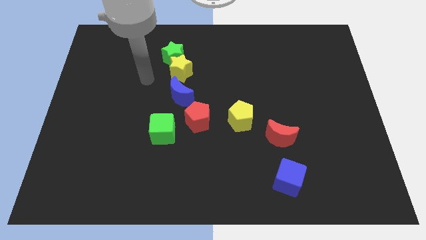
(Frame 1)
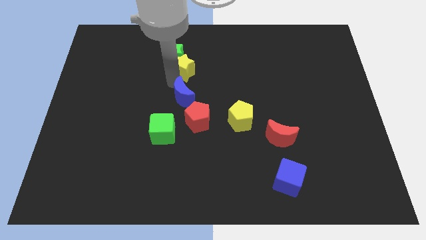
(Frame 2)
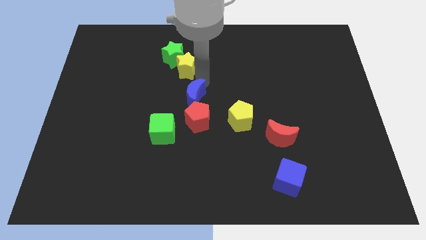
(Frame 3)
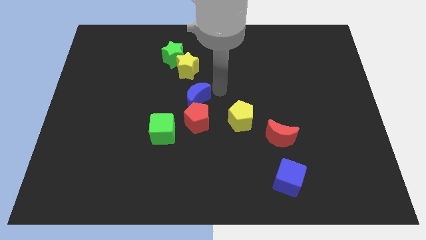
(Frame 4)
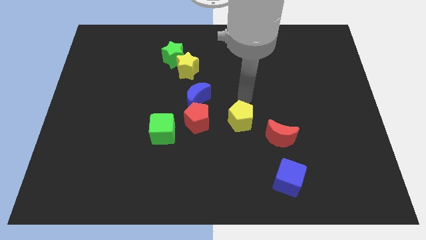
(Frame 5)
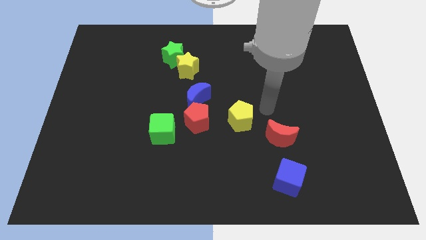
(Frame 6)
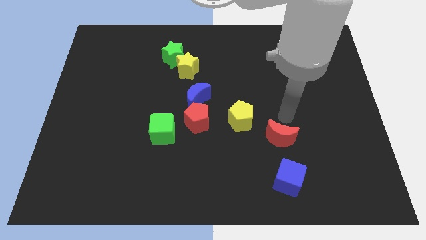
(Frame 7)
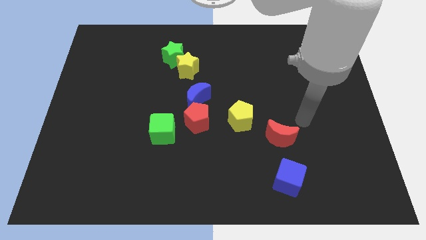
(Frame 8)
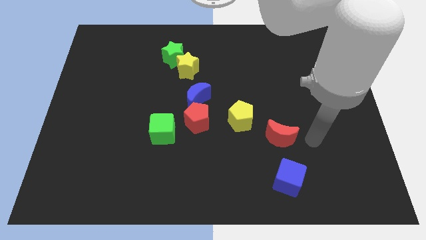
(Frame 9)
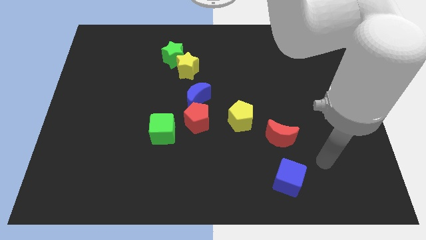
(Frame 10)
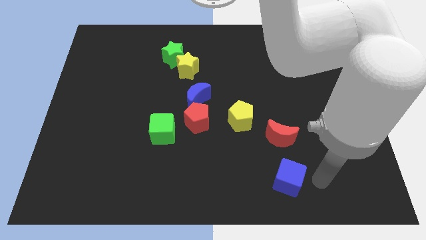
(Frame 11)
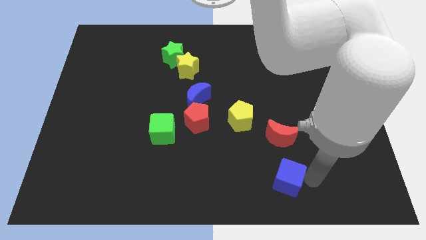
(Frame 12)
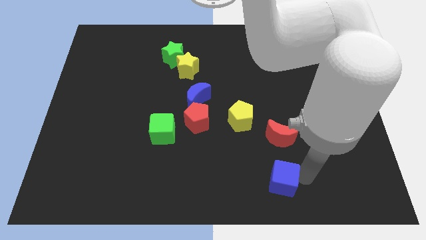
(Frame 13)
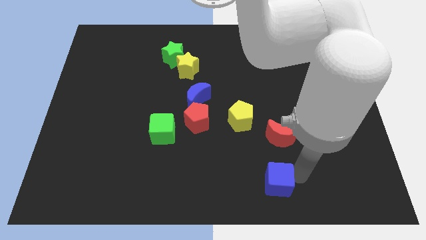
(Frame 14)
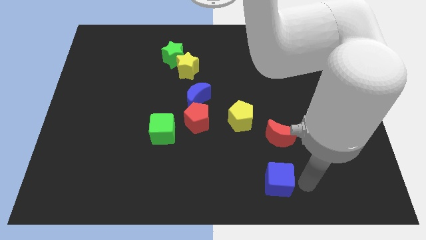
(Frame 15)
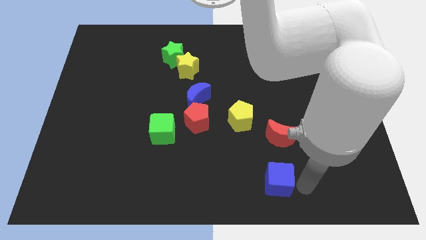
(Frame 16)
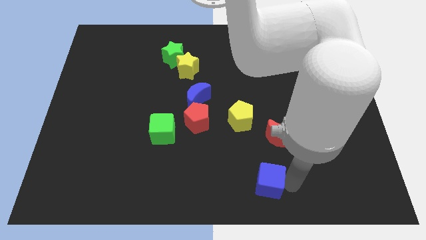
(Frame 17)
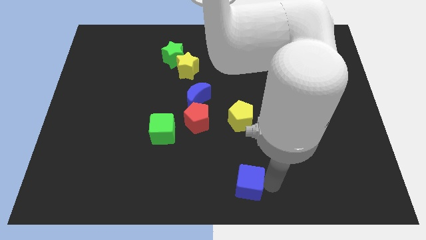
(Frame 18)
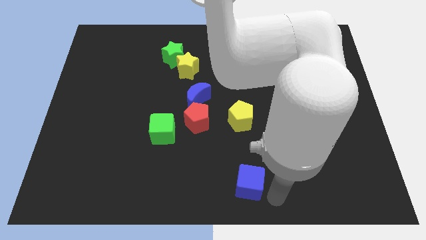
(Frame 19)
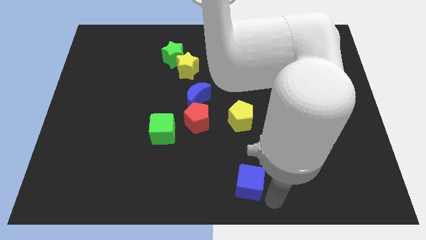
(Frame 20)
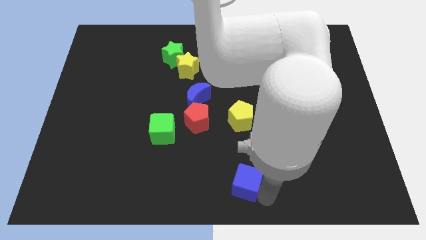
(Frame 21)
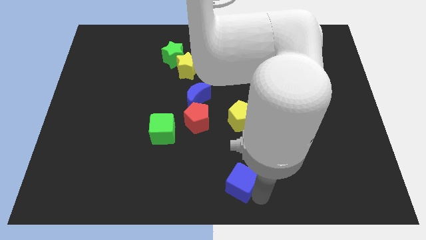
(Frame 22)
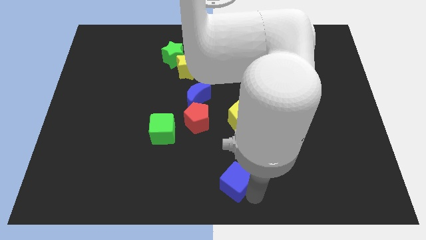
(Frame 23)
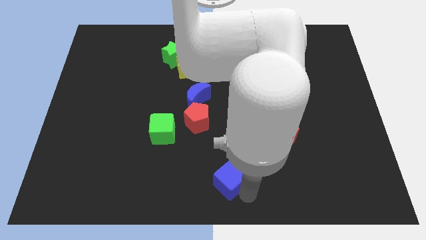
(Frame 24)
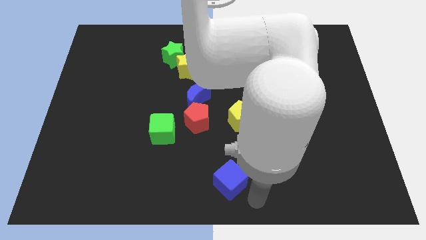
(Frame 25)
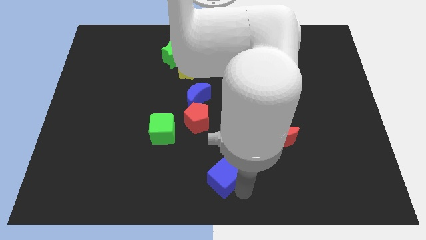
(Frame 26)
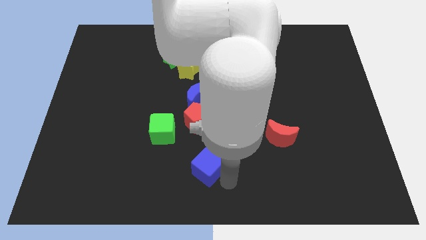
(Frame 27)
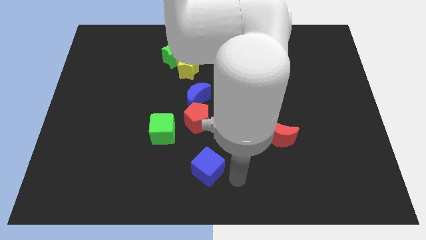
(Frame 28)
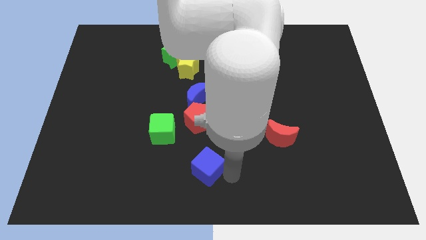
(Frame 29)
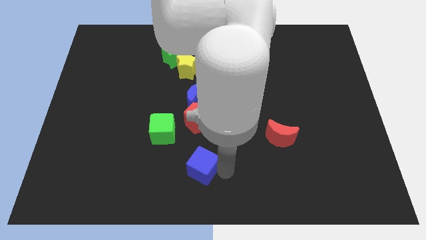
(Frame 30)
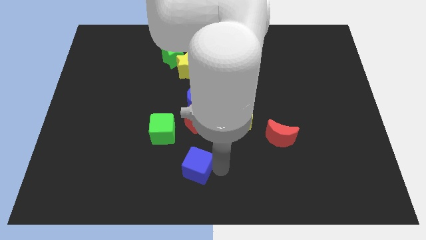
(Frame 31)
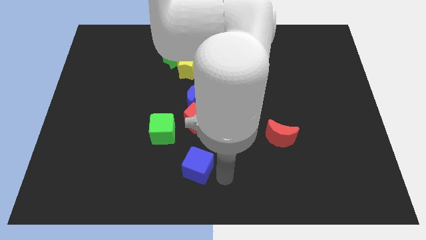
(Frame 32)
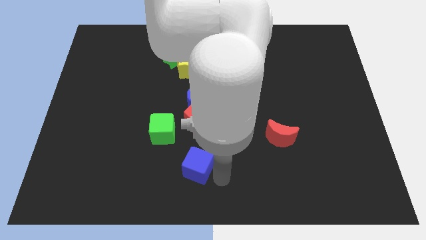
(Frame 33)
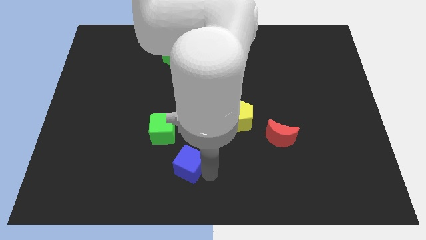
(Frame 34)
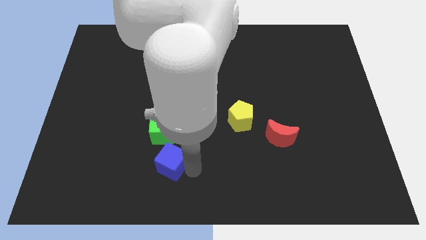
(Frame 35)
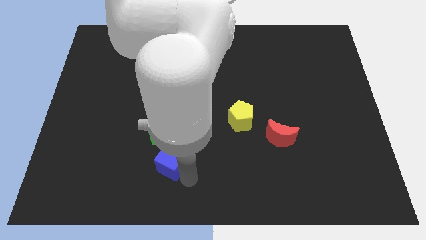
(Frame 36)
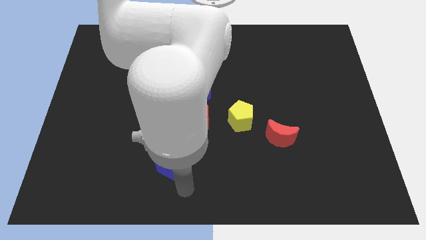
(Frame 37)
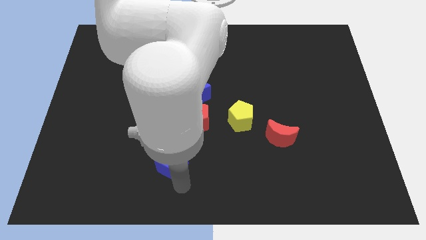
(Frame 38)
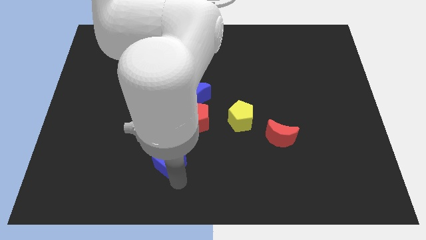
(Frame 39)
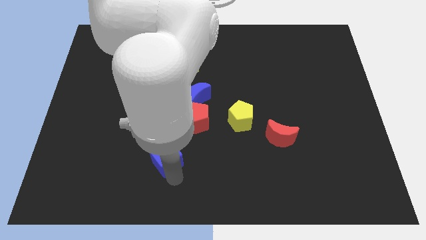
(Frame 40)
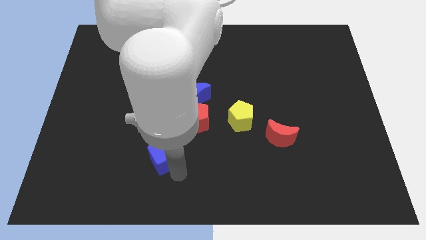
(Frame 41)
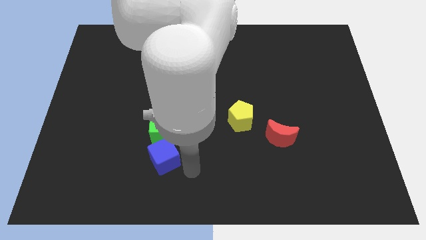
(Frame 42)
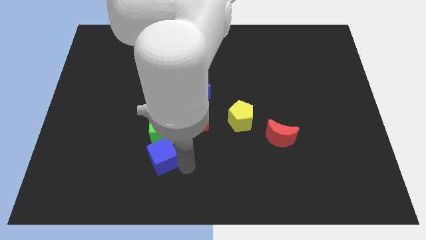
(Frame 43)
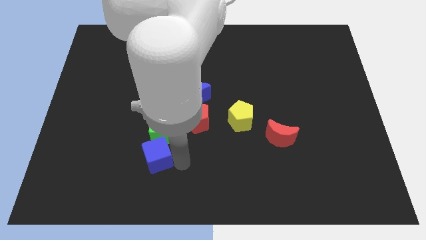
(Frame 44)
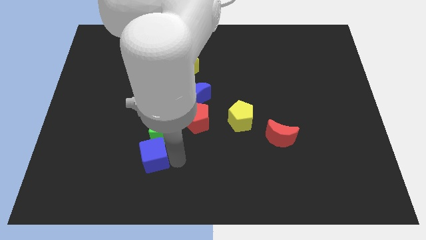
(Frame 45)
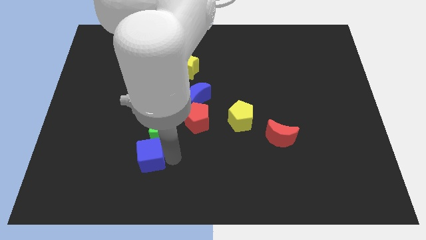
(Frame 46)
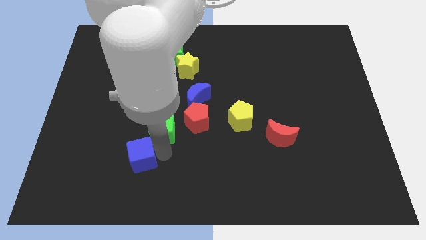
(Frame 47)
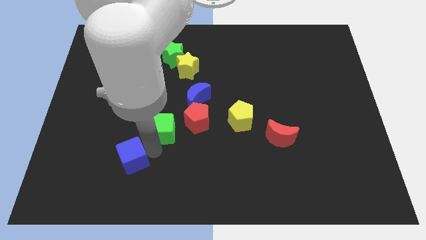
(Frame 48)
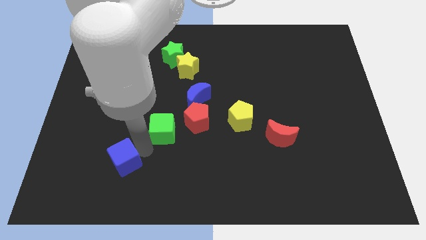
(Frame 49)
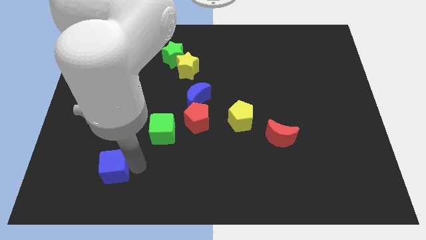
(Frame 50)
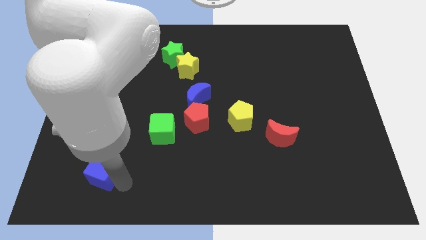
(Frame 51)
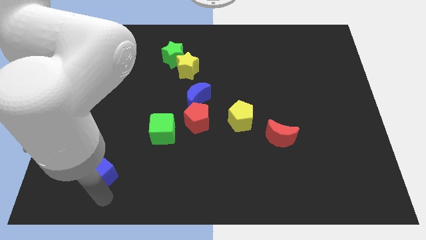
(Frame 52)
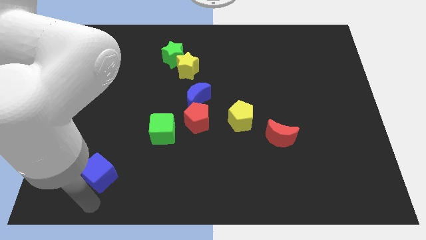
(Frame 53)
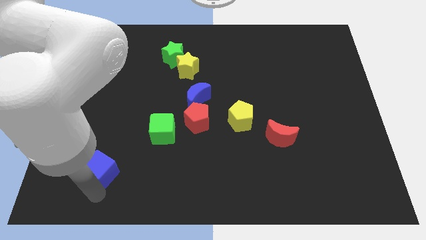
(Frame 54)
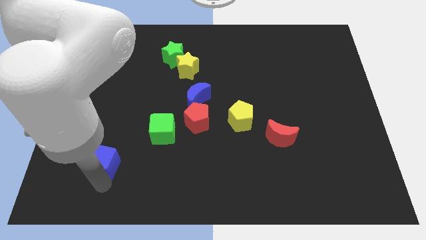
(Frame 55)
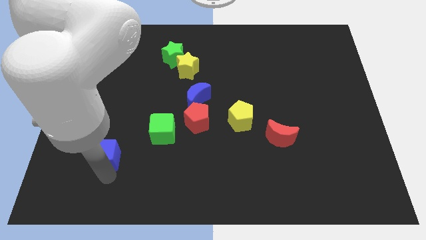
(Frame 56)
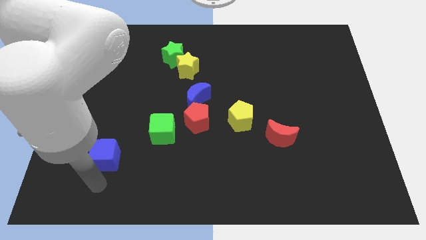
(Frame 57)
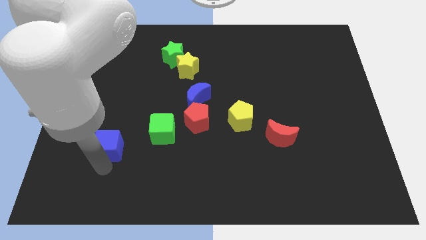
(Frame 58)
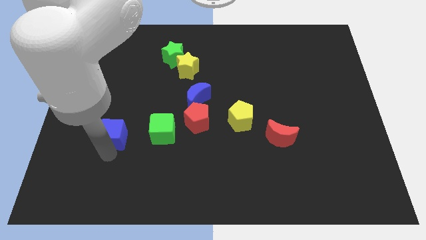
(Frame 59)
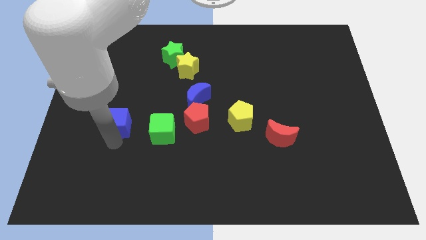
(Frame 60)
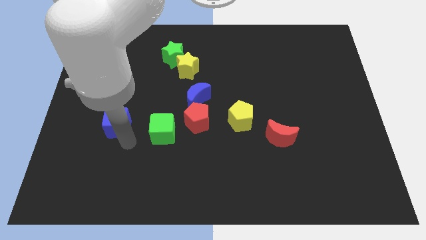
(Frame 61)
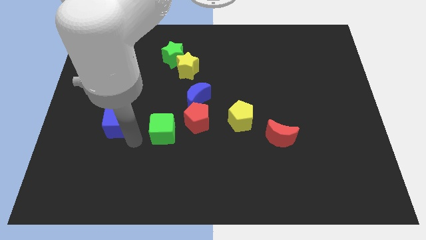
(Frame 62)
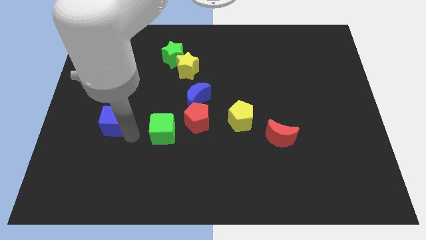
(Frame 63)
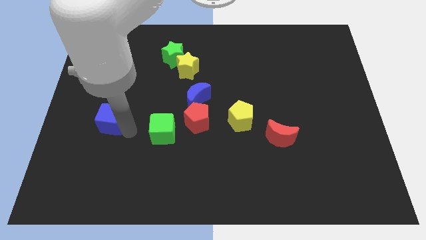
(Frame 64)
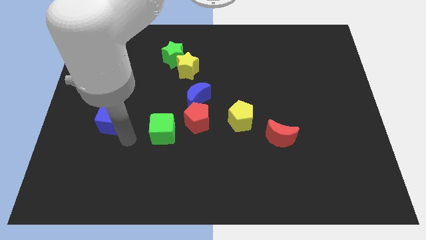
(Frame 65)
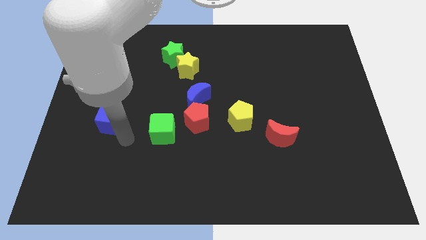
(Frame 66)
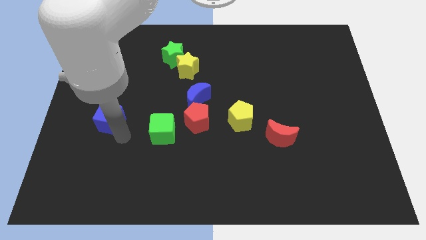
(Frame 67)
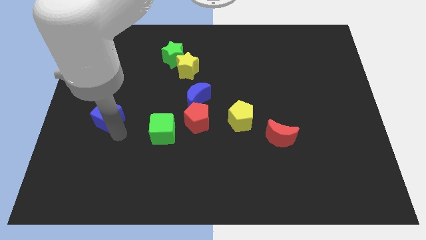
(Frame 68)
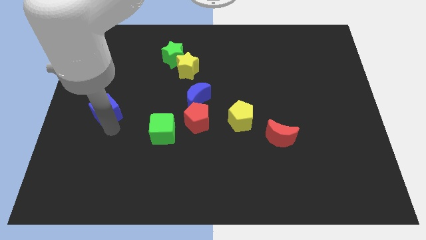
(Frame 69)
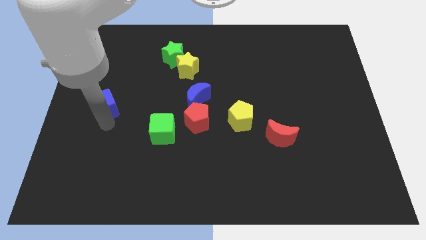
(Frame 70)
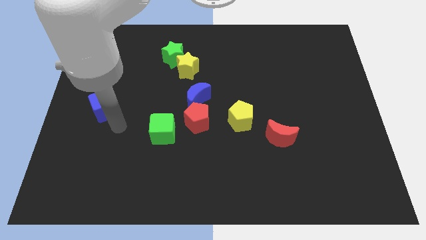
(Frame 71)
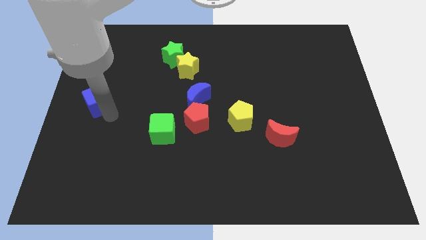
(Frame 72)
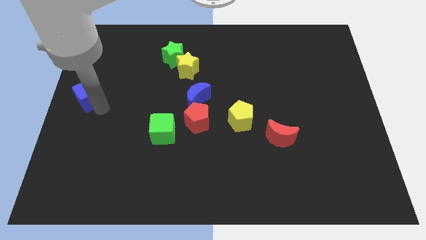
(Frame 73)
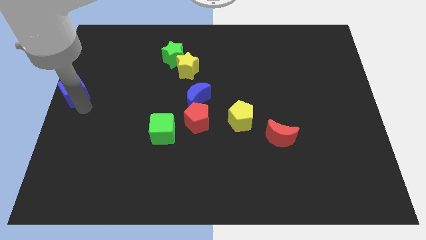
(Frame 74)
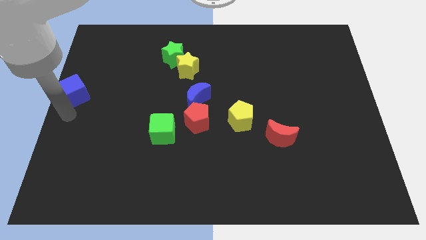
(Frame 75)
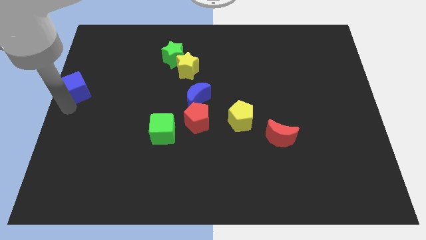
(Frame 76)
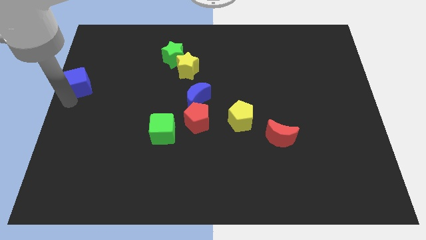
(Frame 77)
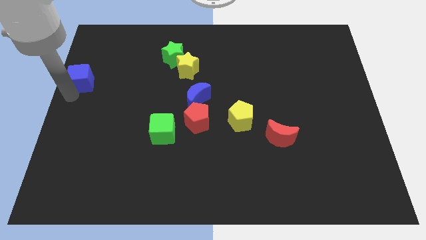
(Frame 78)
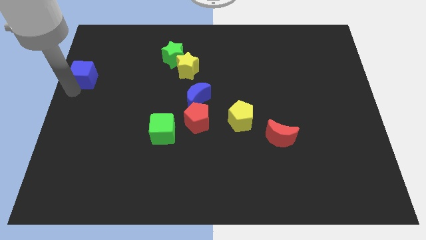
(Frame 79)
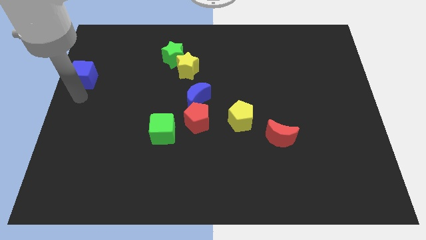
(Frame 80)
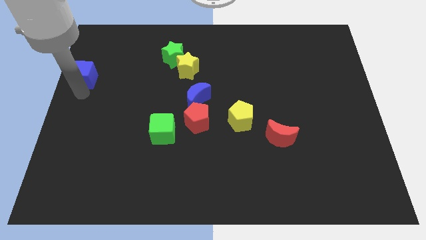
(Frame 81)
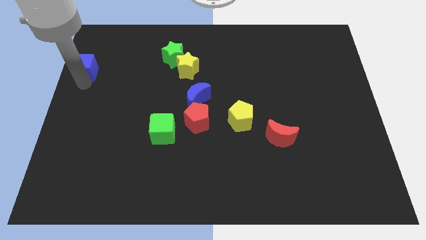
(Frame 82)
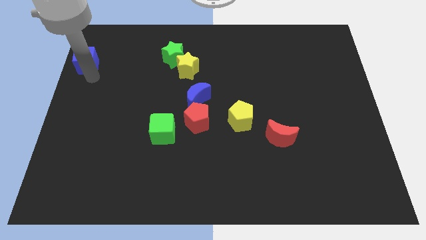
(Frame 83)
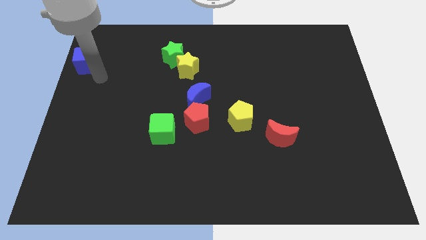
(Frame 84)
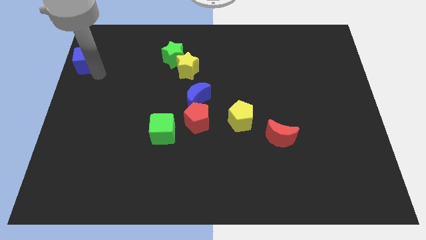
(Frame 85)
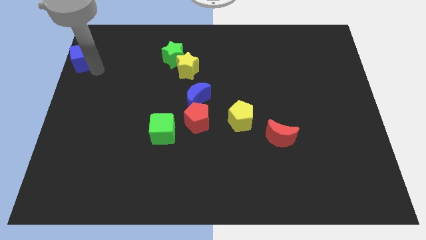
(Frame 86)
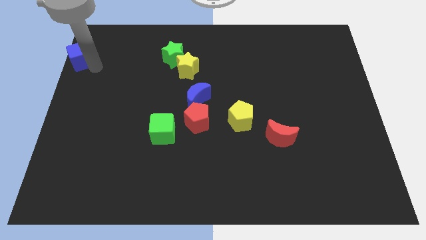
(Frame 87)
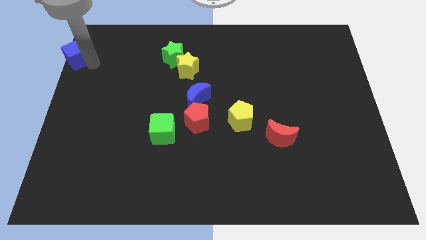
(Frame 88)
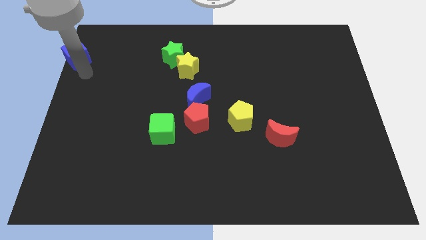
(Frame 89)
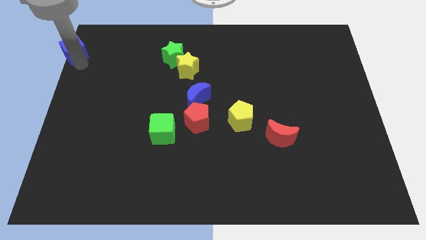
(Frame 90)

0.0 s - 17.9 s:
slide the blue cube to the top left corner
